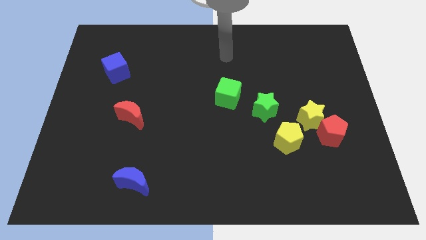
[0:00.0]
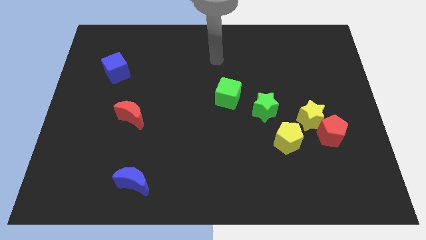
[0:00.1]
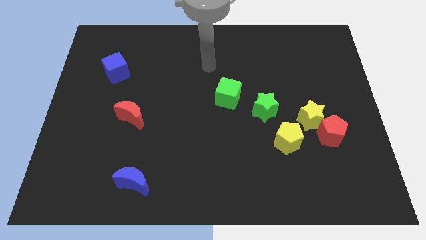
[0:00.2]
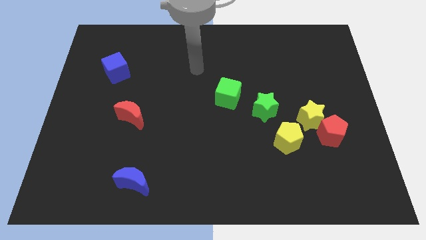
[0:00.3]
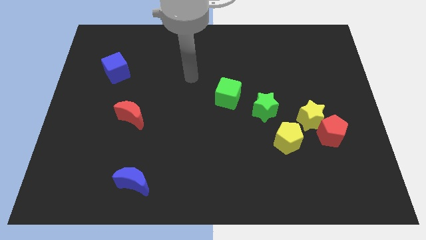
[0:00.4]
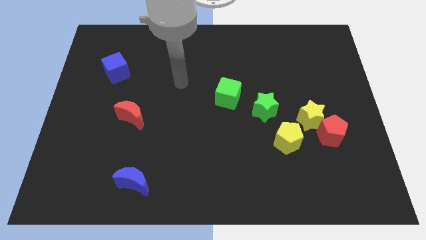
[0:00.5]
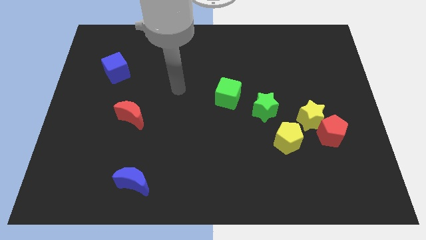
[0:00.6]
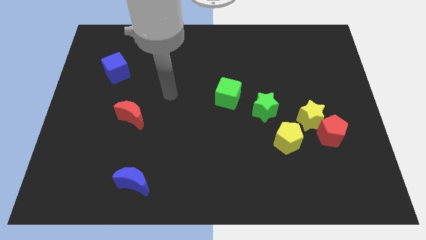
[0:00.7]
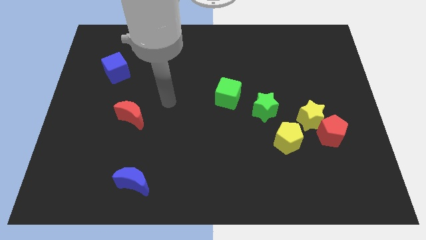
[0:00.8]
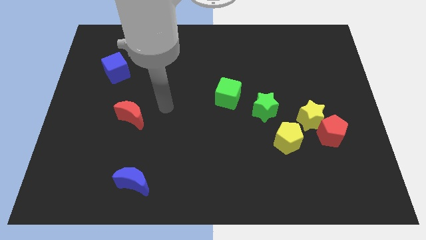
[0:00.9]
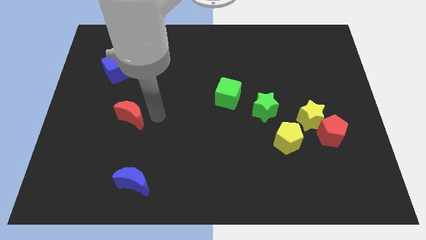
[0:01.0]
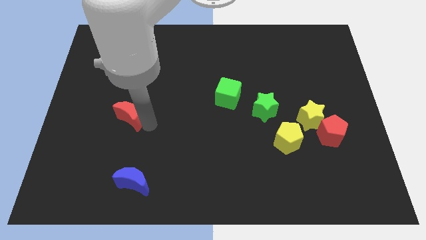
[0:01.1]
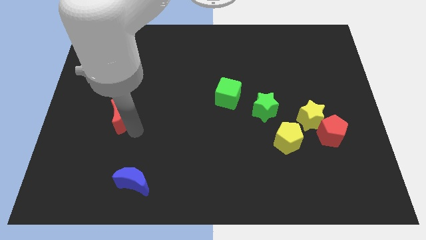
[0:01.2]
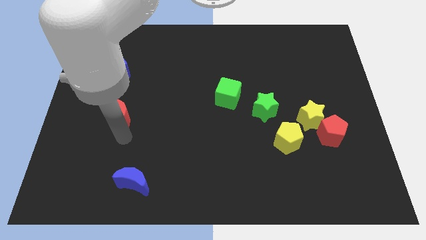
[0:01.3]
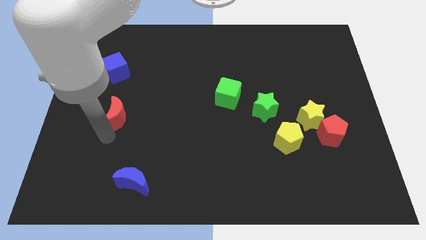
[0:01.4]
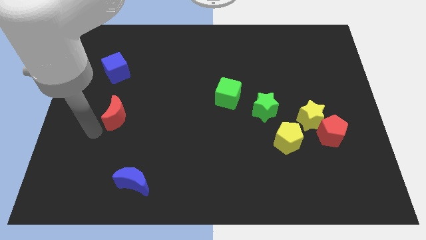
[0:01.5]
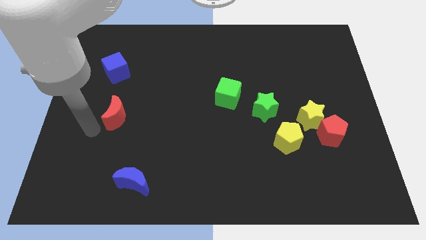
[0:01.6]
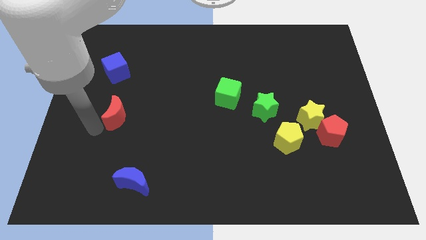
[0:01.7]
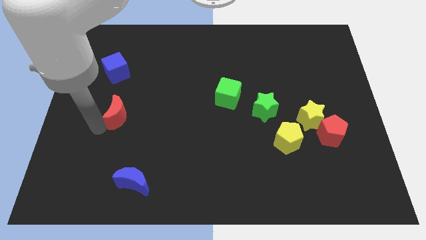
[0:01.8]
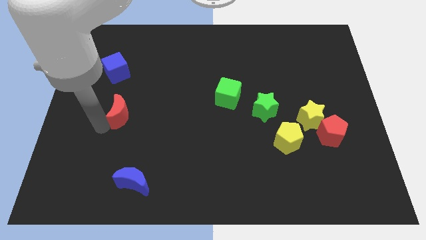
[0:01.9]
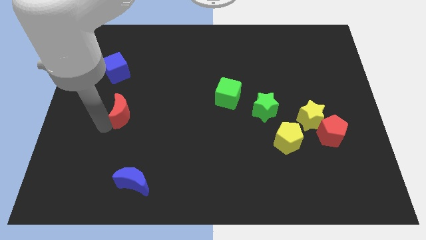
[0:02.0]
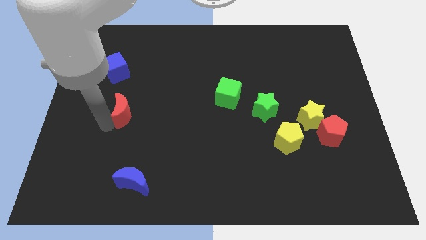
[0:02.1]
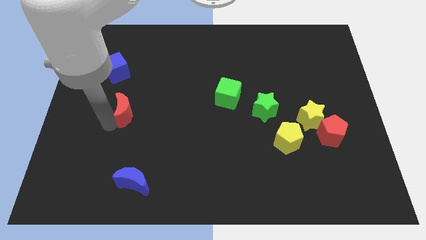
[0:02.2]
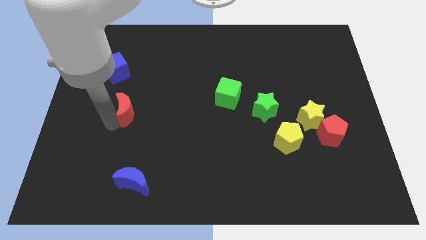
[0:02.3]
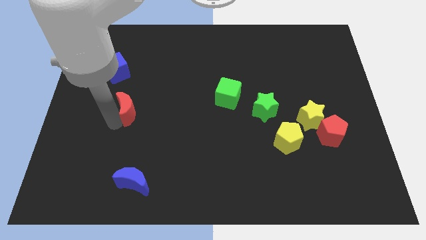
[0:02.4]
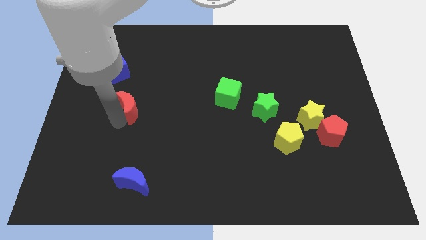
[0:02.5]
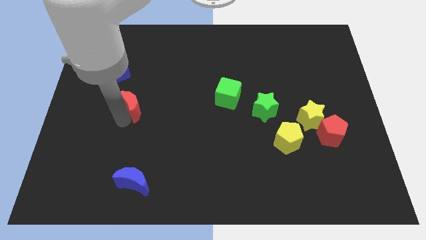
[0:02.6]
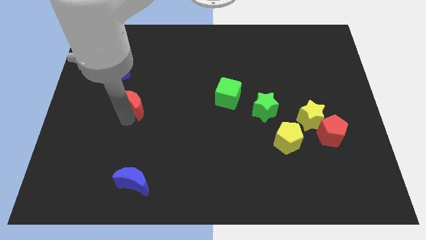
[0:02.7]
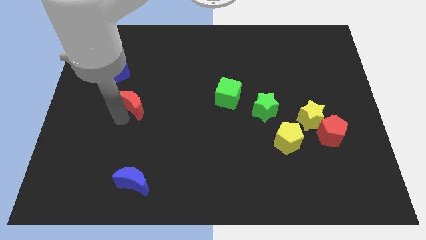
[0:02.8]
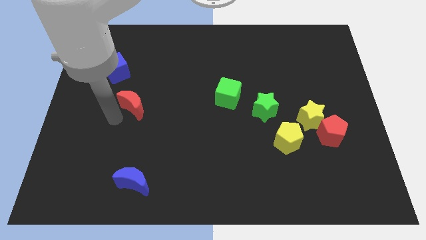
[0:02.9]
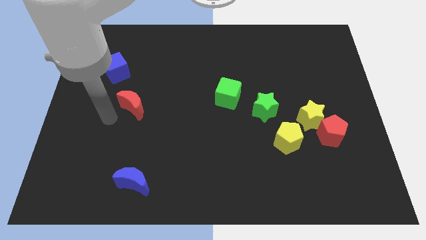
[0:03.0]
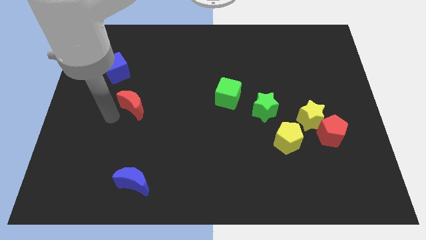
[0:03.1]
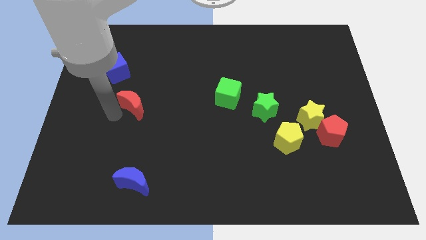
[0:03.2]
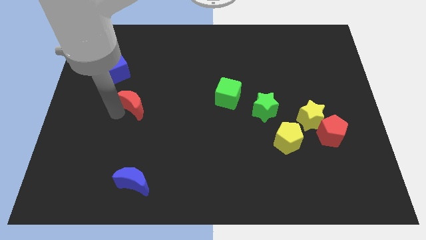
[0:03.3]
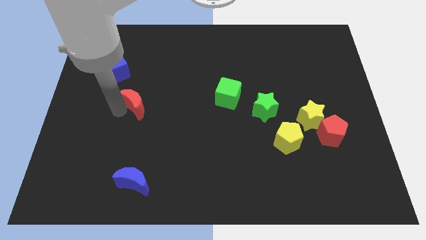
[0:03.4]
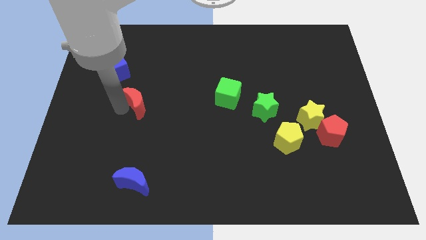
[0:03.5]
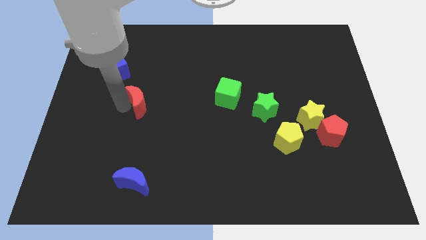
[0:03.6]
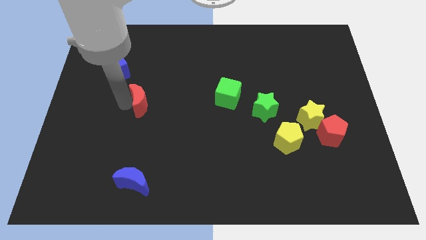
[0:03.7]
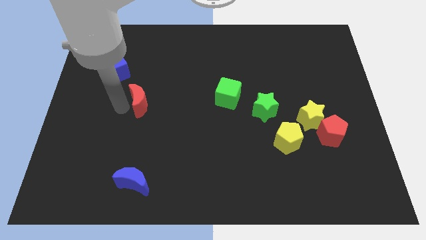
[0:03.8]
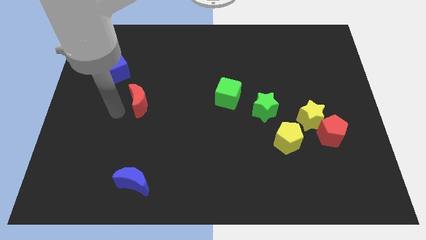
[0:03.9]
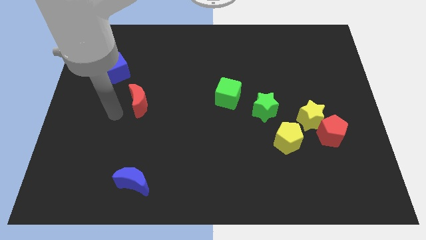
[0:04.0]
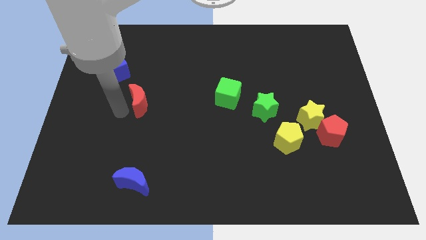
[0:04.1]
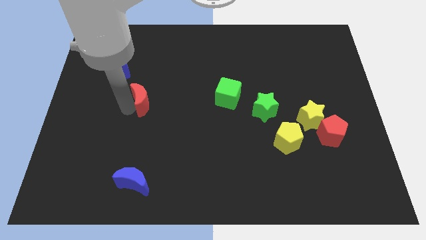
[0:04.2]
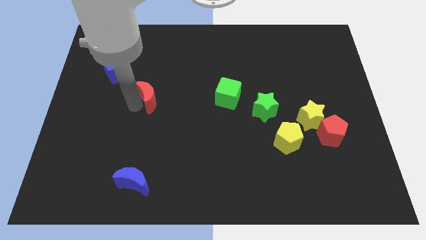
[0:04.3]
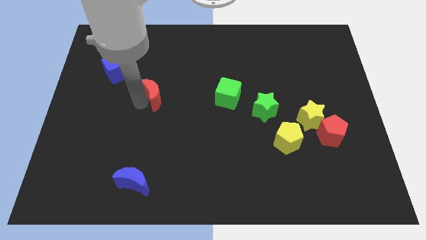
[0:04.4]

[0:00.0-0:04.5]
push the red moon a bit diagonally upwards and right

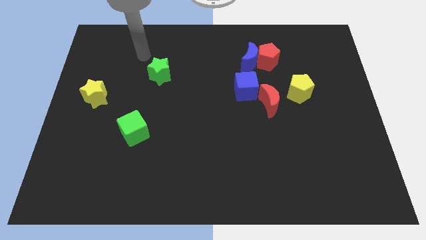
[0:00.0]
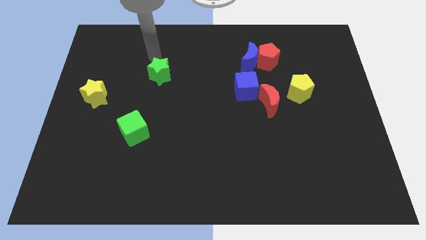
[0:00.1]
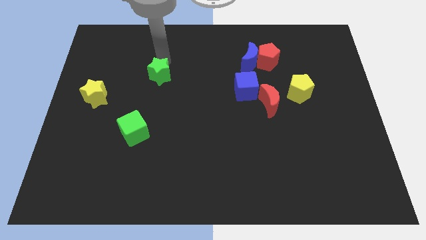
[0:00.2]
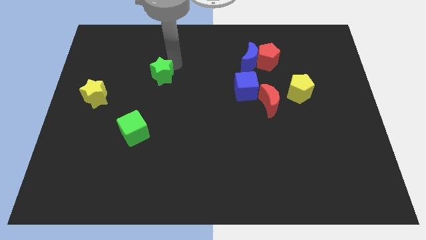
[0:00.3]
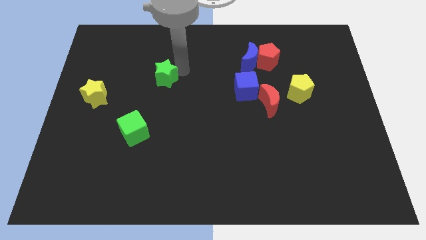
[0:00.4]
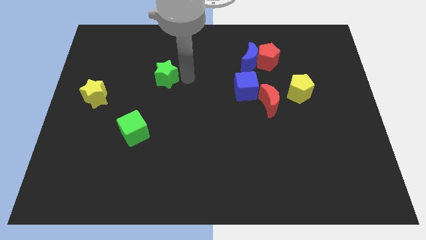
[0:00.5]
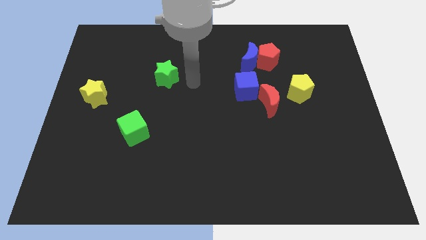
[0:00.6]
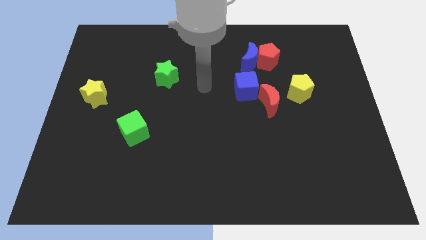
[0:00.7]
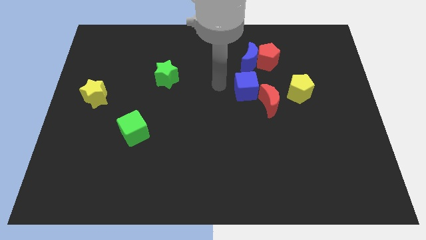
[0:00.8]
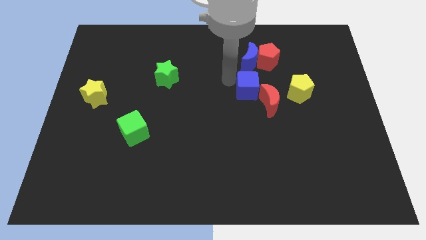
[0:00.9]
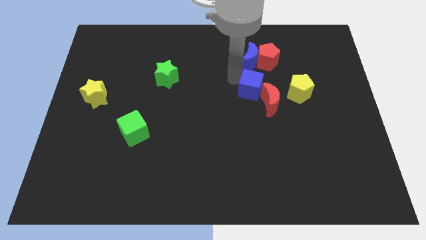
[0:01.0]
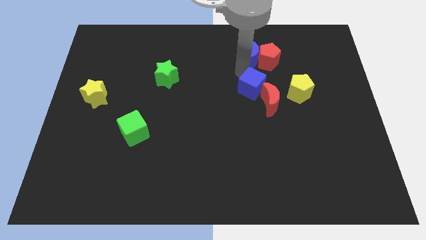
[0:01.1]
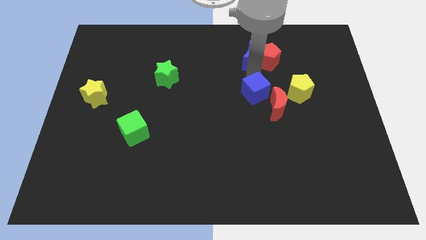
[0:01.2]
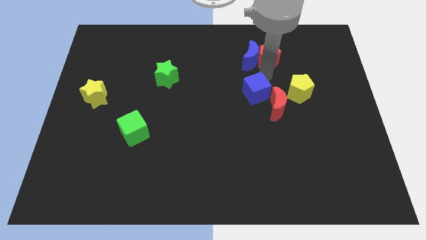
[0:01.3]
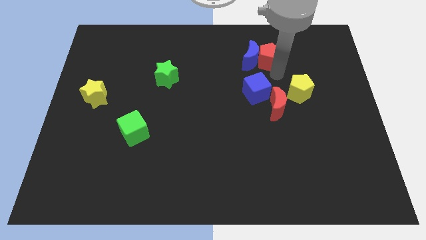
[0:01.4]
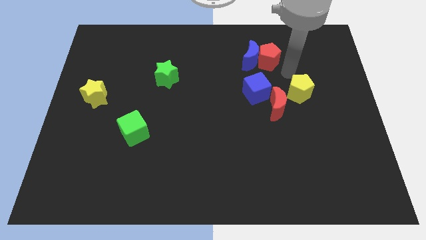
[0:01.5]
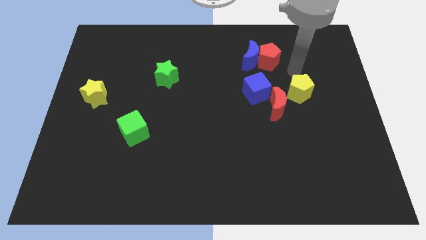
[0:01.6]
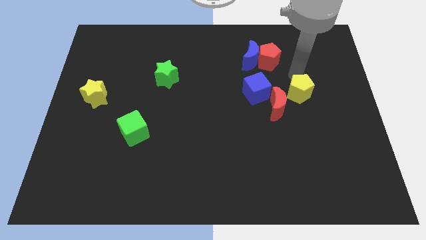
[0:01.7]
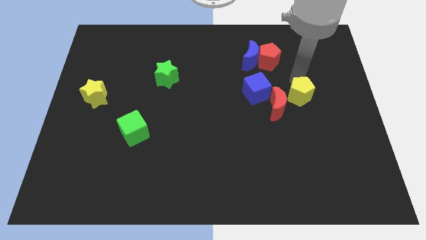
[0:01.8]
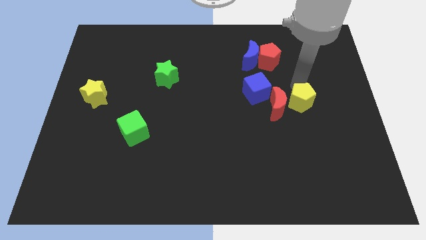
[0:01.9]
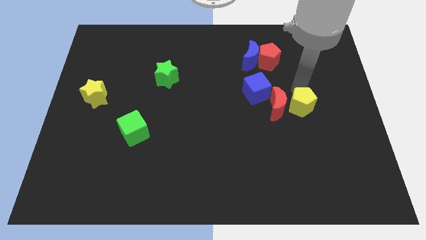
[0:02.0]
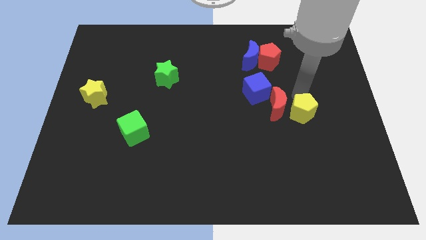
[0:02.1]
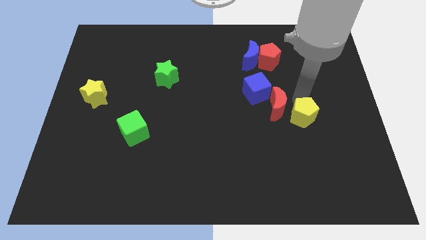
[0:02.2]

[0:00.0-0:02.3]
slightly move the yellow pentagon down

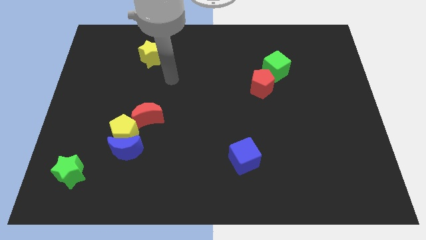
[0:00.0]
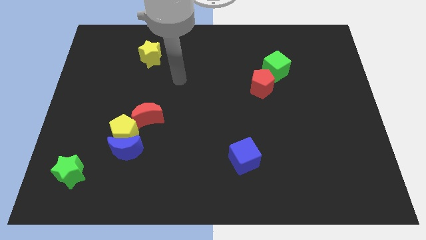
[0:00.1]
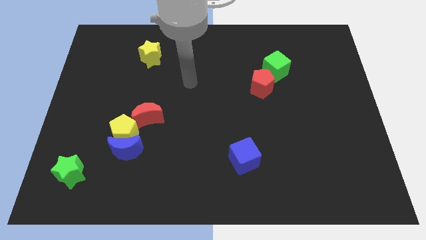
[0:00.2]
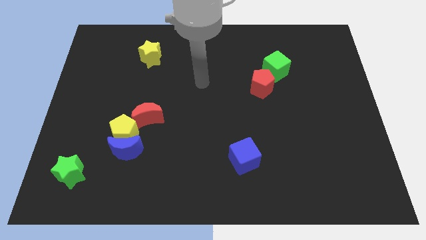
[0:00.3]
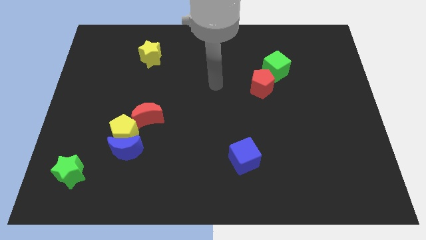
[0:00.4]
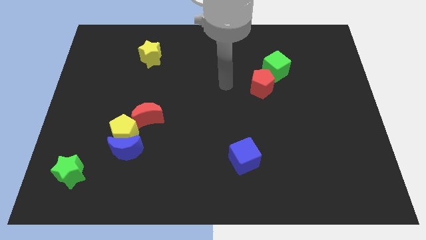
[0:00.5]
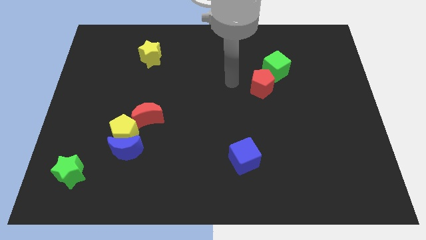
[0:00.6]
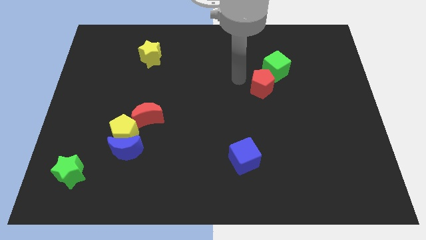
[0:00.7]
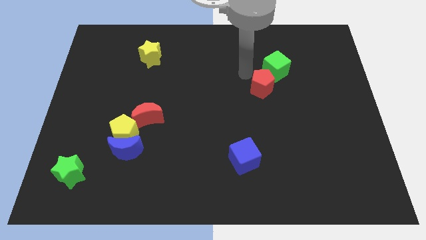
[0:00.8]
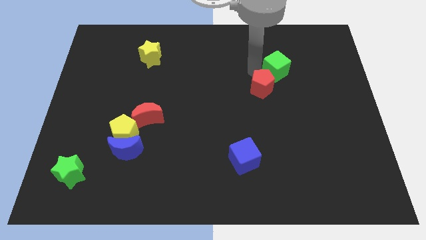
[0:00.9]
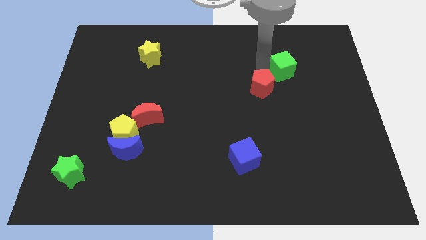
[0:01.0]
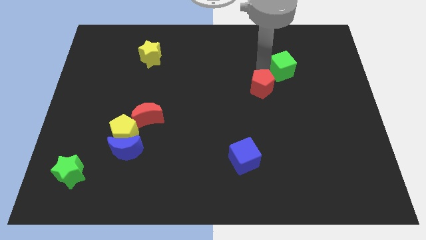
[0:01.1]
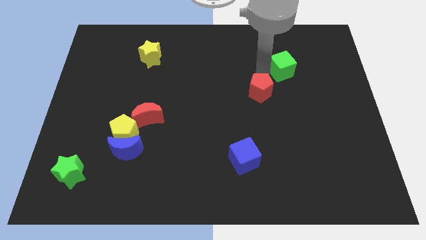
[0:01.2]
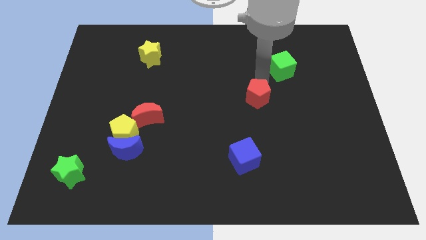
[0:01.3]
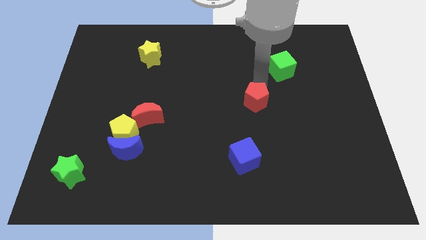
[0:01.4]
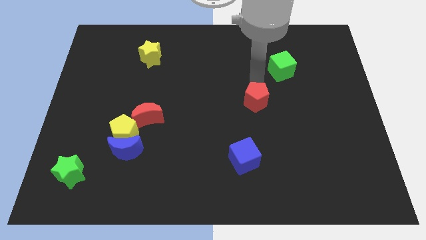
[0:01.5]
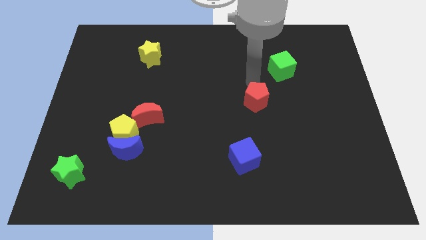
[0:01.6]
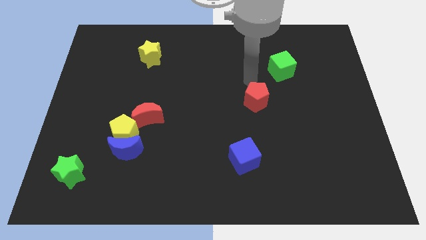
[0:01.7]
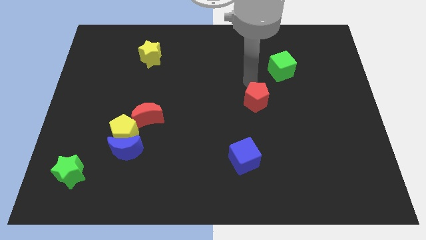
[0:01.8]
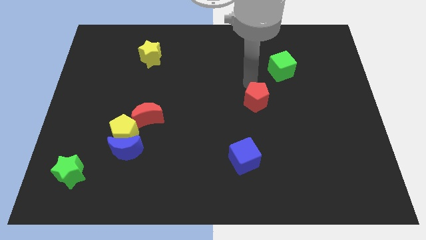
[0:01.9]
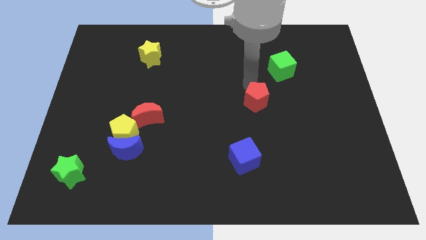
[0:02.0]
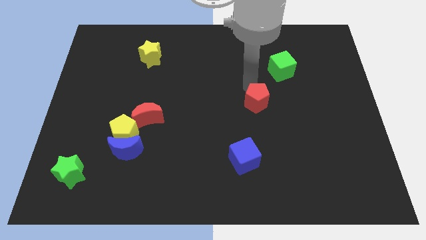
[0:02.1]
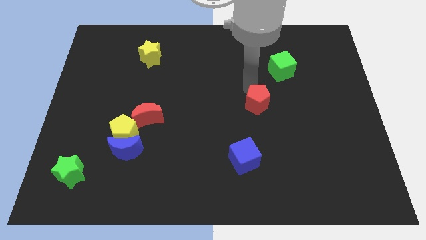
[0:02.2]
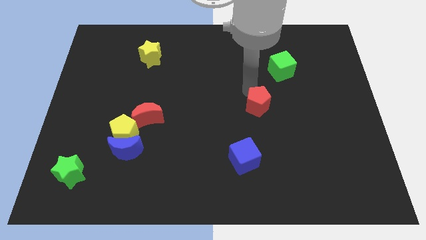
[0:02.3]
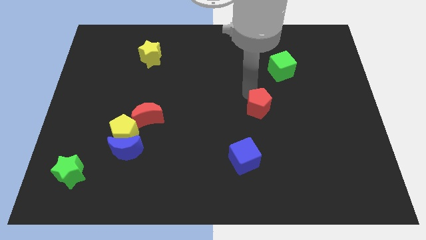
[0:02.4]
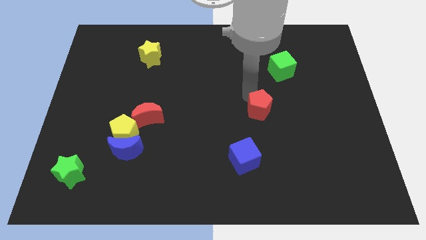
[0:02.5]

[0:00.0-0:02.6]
slide the red pentagon a little bit down
